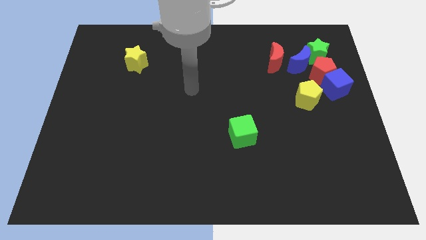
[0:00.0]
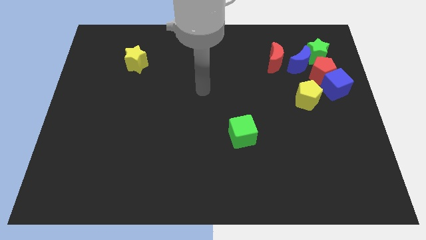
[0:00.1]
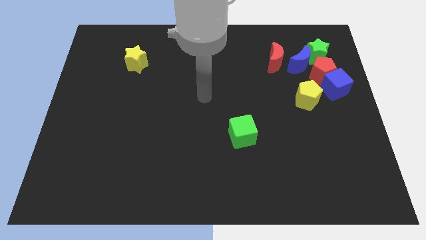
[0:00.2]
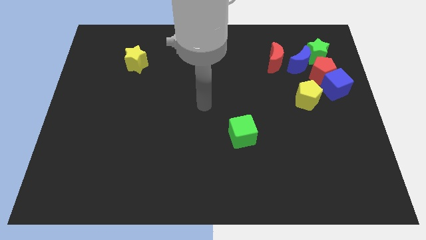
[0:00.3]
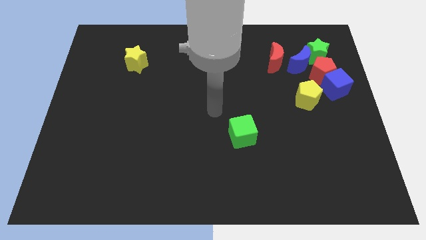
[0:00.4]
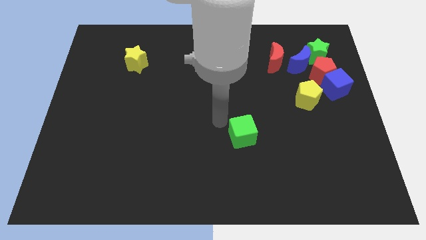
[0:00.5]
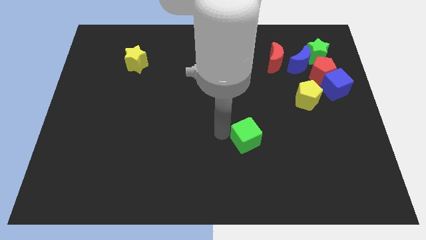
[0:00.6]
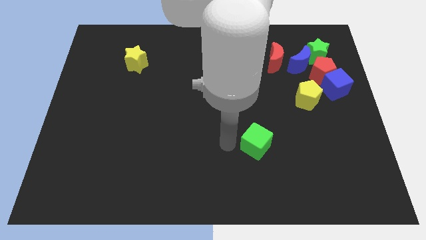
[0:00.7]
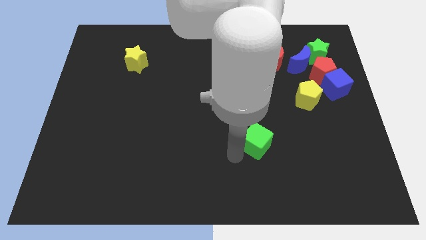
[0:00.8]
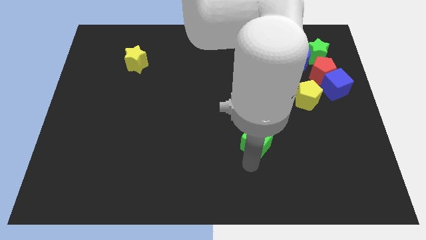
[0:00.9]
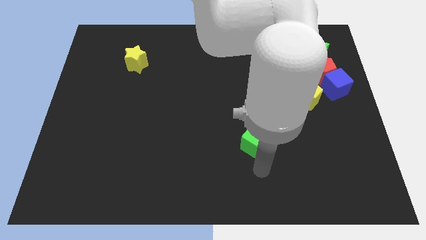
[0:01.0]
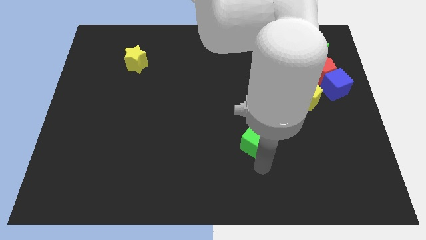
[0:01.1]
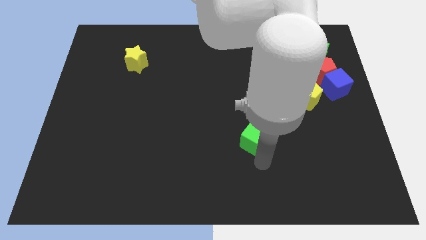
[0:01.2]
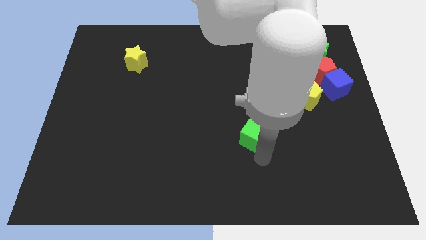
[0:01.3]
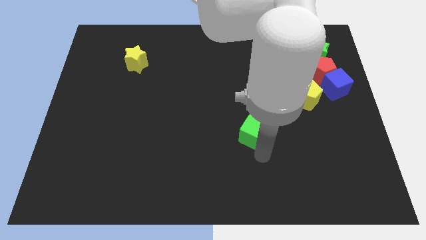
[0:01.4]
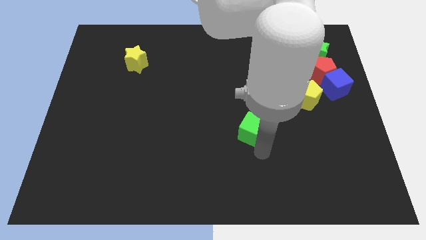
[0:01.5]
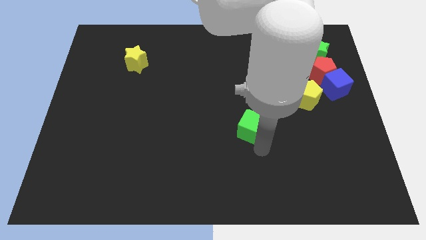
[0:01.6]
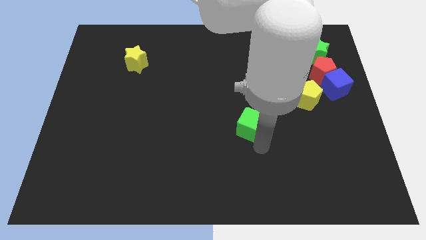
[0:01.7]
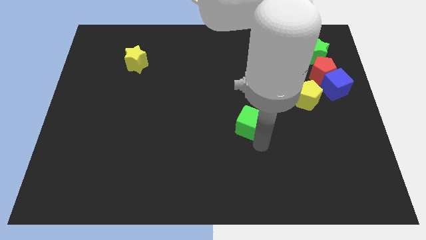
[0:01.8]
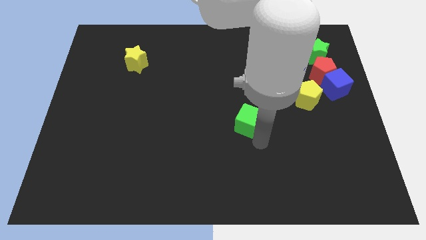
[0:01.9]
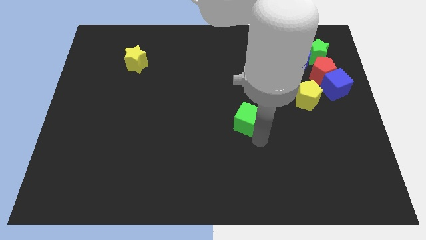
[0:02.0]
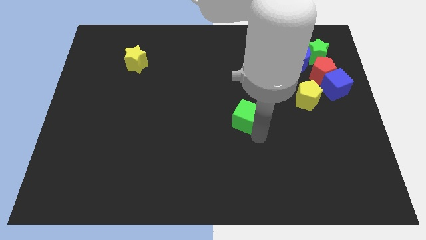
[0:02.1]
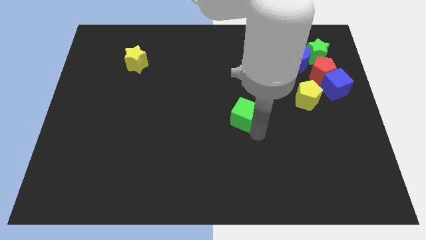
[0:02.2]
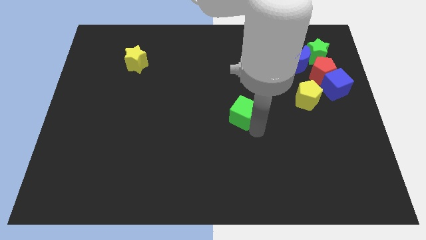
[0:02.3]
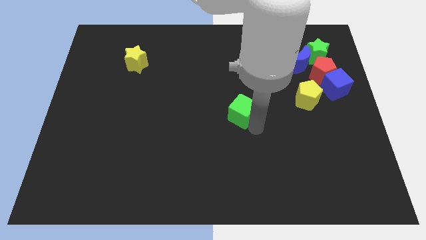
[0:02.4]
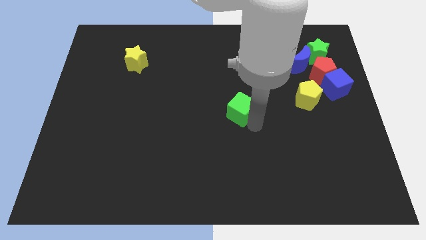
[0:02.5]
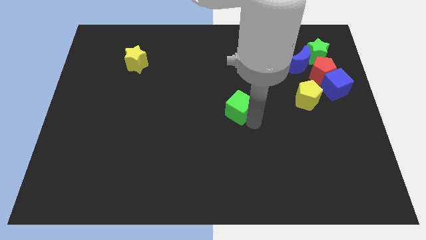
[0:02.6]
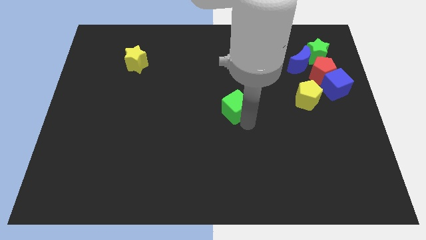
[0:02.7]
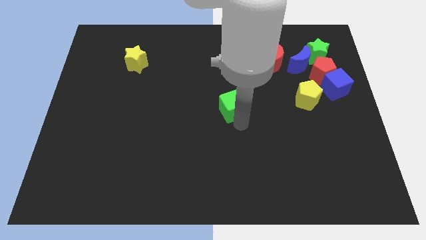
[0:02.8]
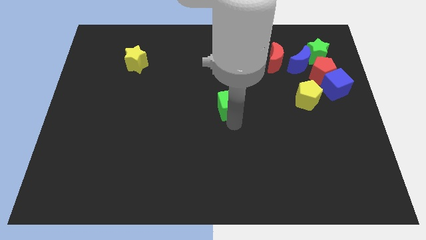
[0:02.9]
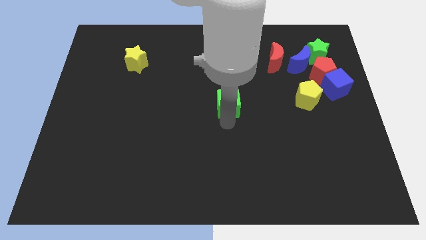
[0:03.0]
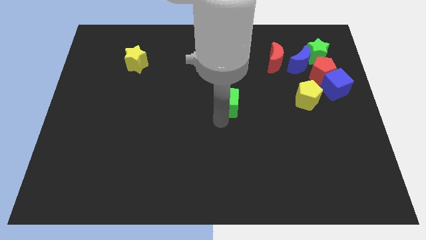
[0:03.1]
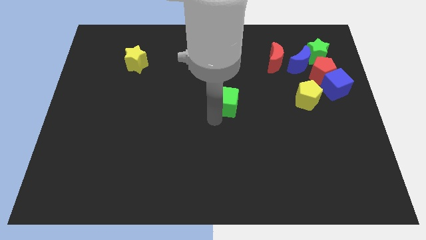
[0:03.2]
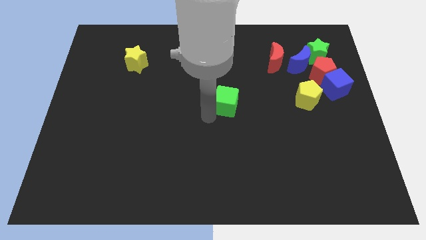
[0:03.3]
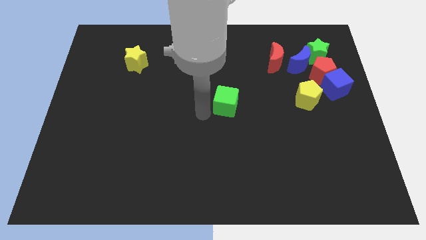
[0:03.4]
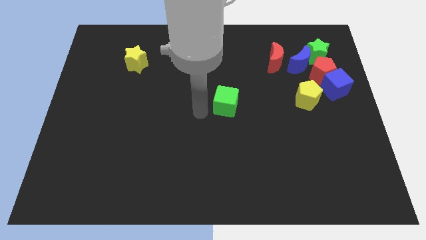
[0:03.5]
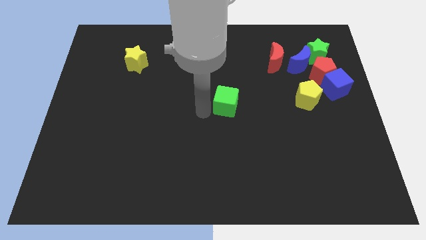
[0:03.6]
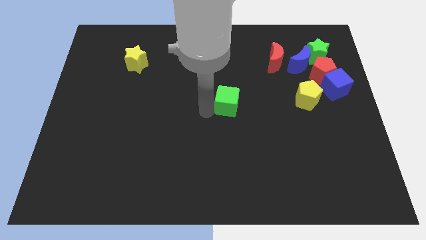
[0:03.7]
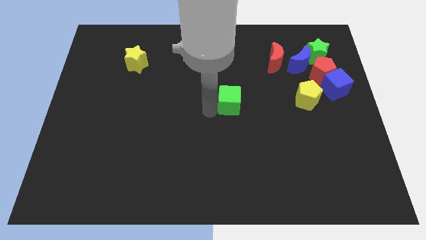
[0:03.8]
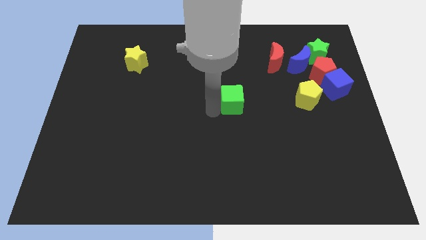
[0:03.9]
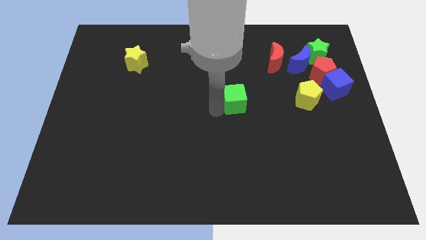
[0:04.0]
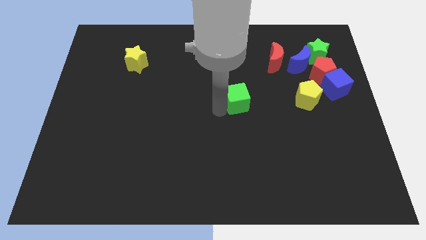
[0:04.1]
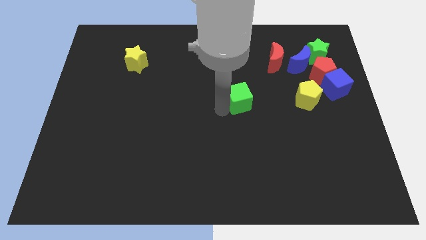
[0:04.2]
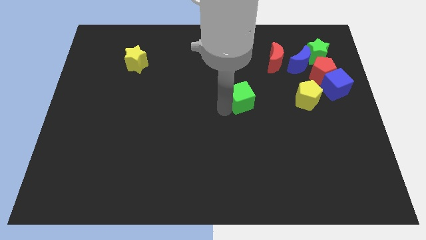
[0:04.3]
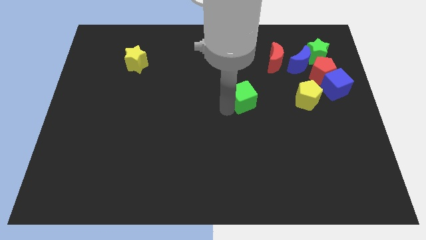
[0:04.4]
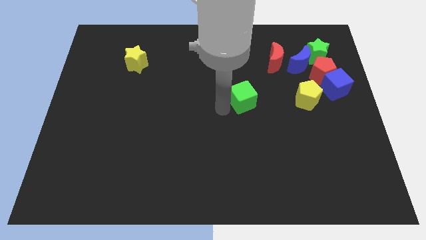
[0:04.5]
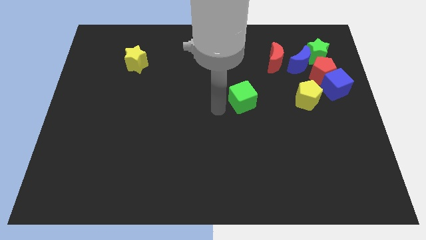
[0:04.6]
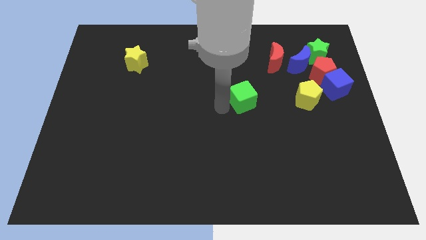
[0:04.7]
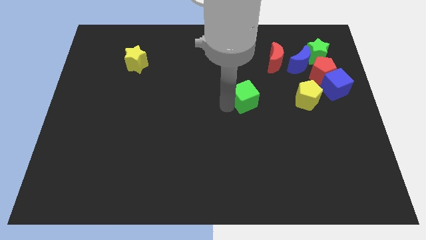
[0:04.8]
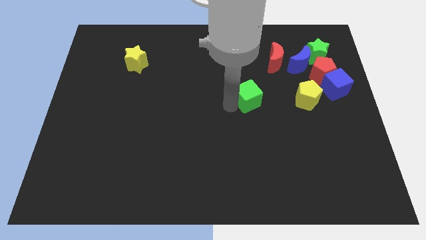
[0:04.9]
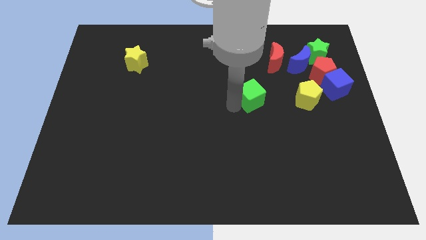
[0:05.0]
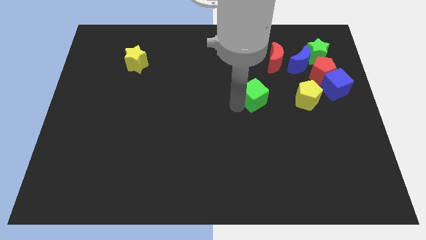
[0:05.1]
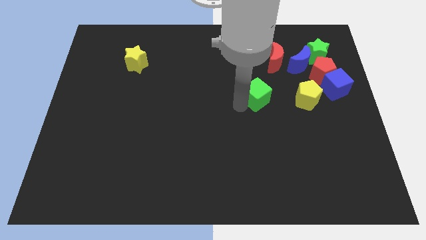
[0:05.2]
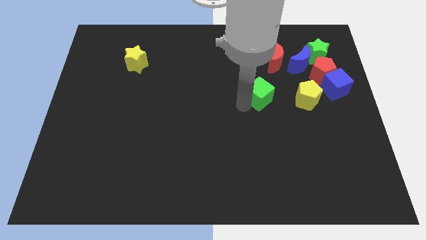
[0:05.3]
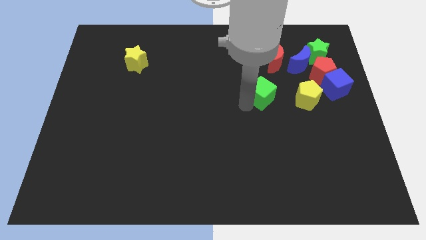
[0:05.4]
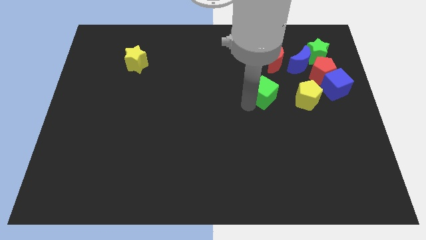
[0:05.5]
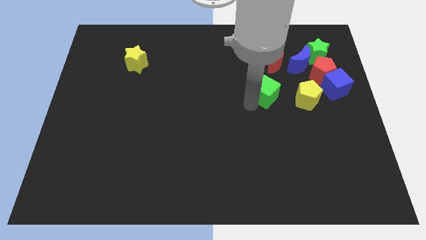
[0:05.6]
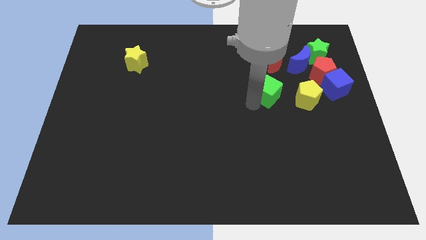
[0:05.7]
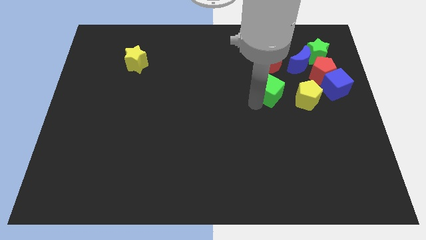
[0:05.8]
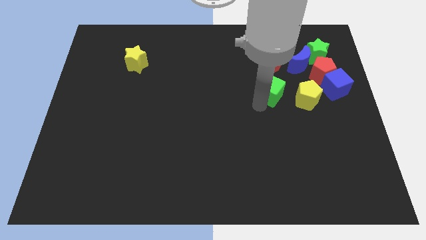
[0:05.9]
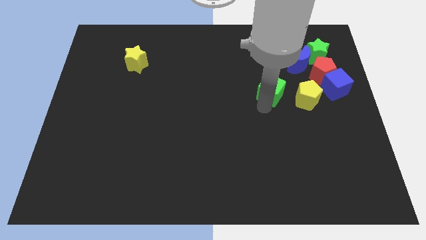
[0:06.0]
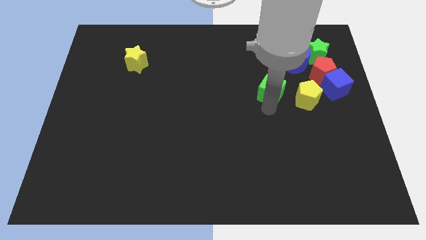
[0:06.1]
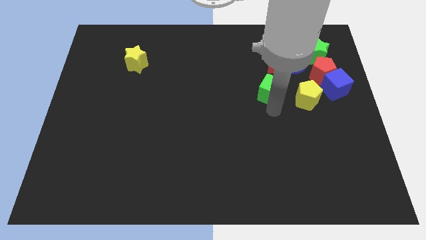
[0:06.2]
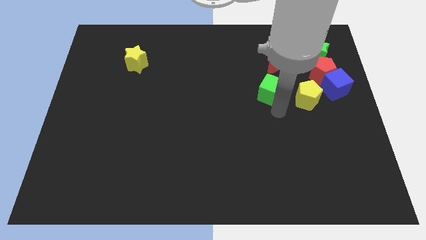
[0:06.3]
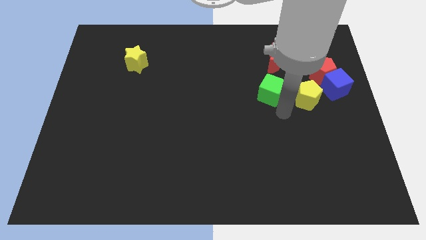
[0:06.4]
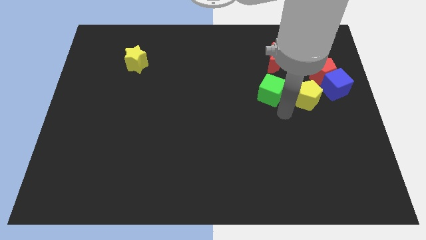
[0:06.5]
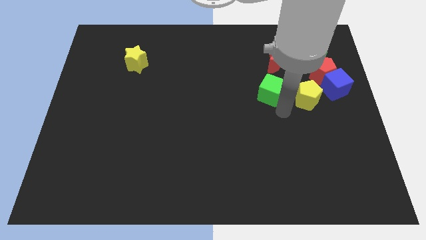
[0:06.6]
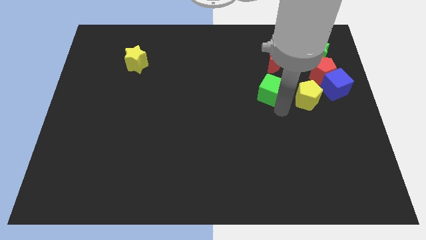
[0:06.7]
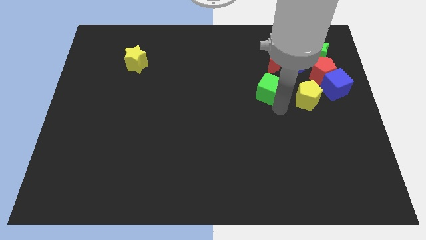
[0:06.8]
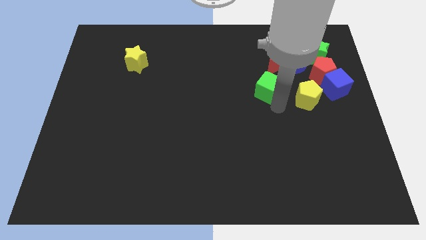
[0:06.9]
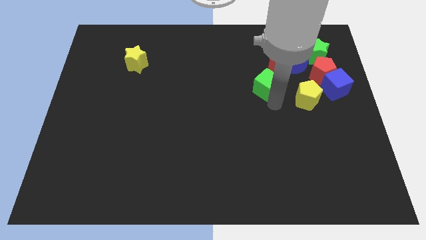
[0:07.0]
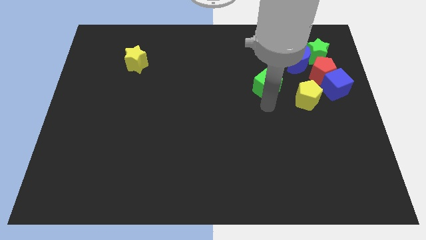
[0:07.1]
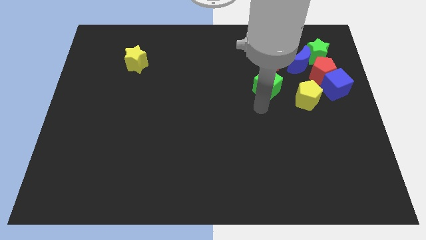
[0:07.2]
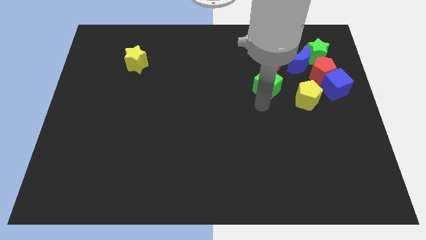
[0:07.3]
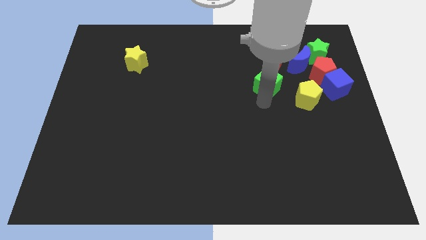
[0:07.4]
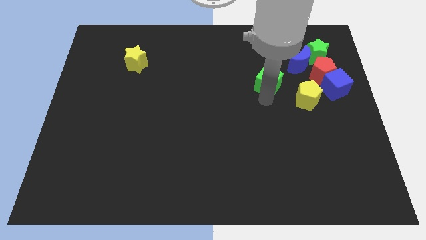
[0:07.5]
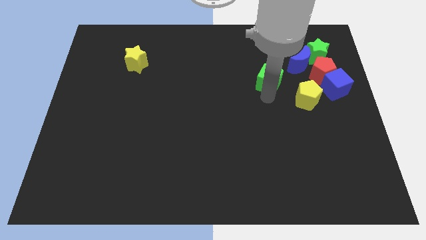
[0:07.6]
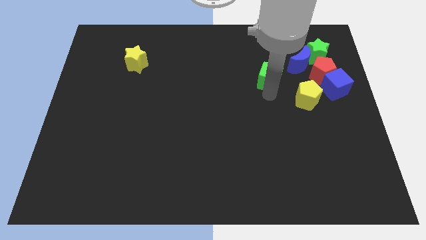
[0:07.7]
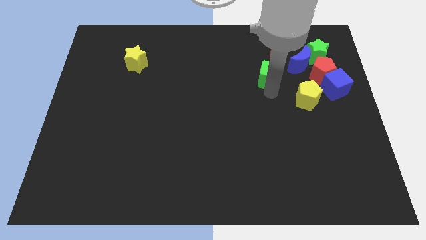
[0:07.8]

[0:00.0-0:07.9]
move the green cube close to the red moon
